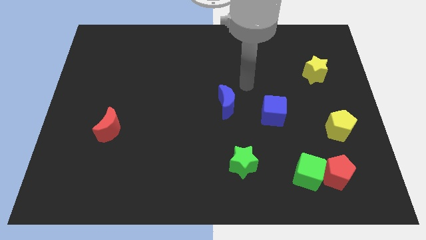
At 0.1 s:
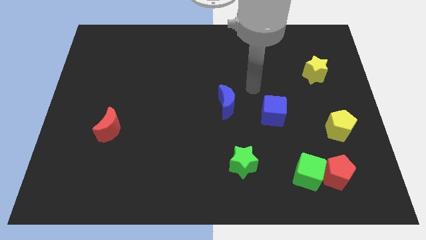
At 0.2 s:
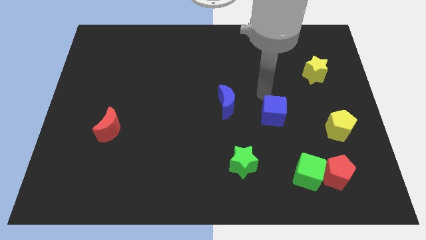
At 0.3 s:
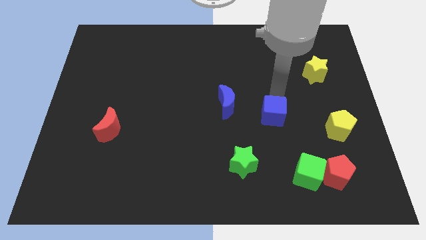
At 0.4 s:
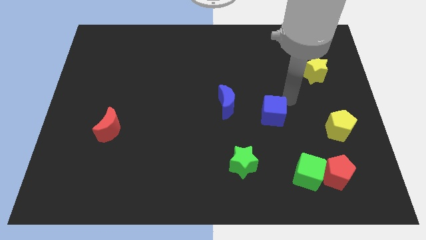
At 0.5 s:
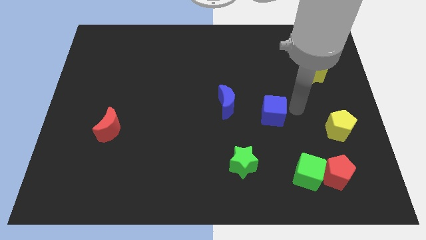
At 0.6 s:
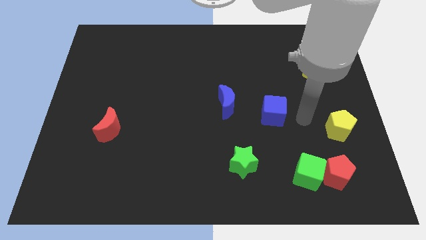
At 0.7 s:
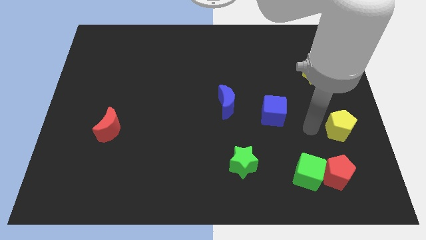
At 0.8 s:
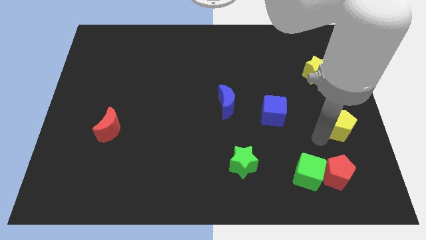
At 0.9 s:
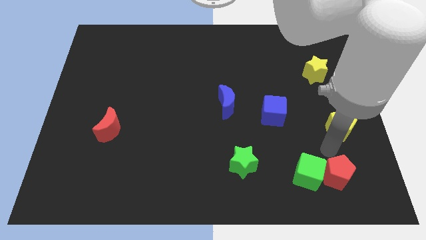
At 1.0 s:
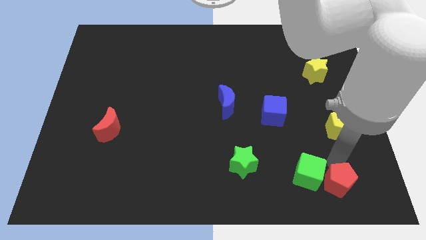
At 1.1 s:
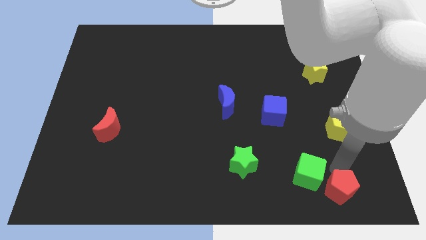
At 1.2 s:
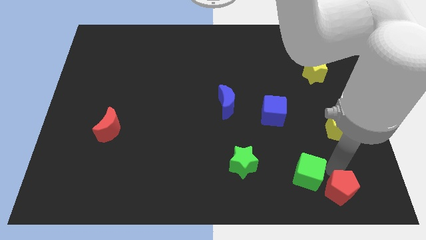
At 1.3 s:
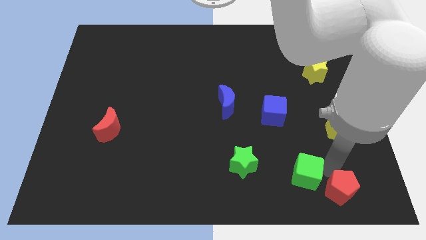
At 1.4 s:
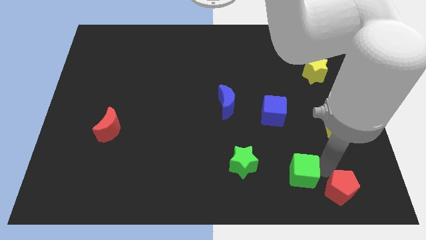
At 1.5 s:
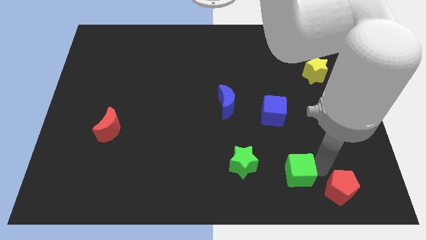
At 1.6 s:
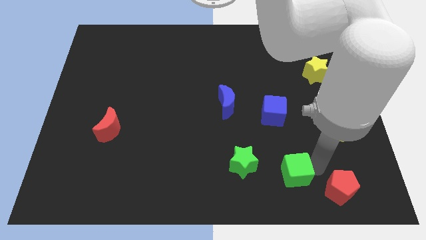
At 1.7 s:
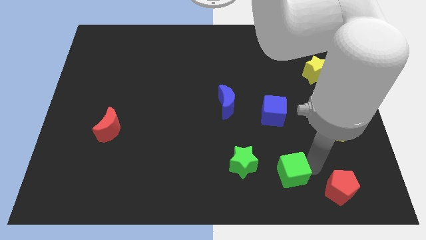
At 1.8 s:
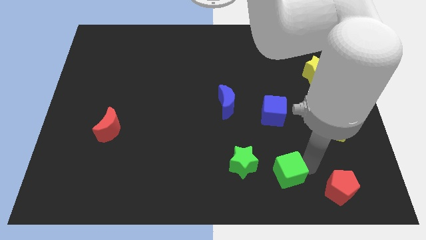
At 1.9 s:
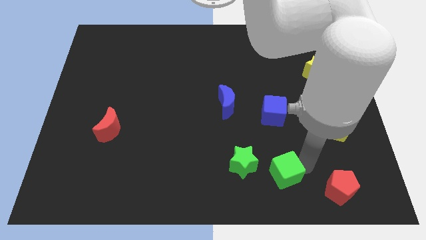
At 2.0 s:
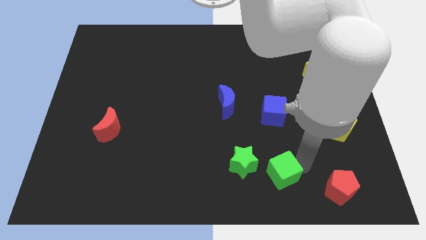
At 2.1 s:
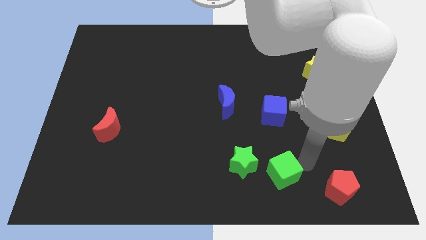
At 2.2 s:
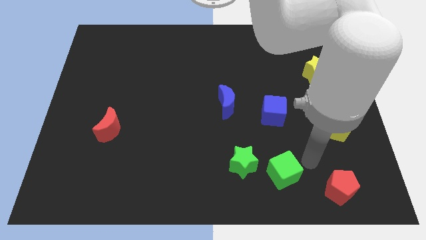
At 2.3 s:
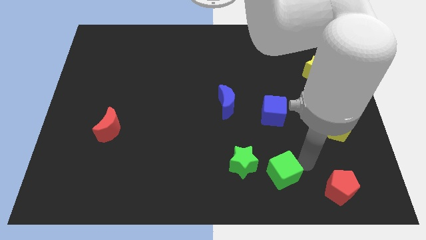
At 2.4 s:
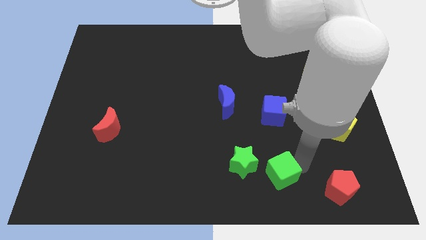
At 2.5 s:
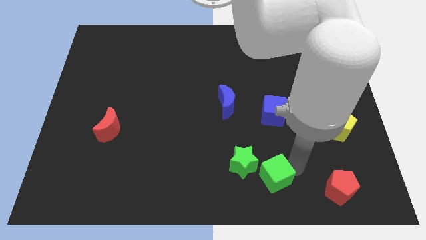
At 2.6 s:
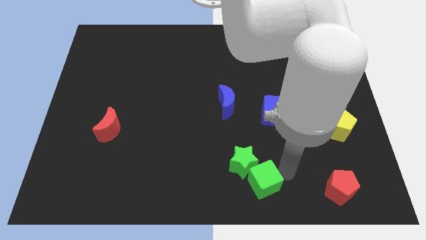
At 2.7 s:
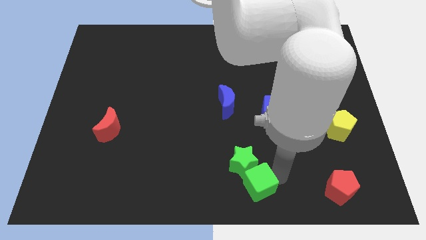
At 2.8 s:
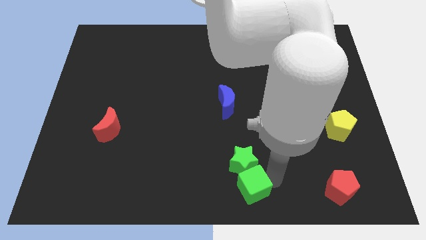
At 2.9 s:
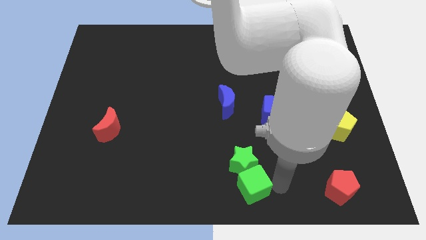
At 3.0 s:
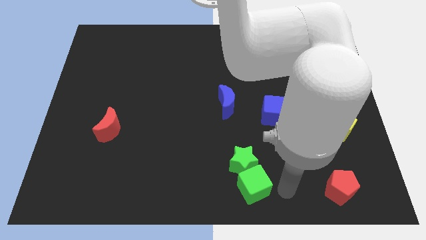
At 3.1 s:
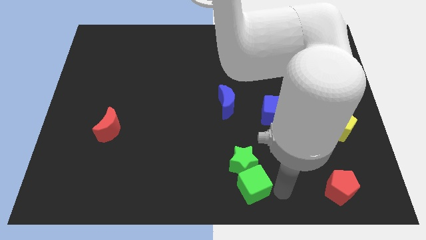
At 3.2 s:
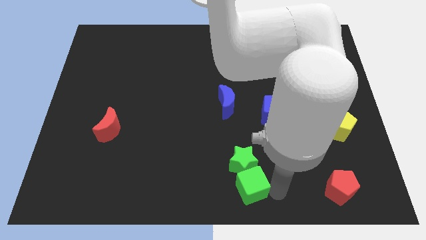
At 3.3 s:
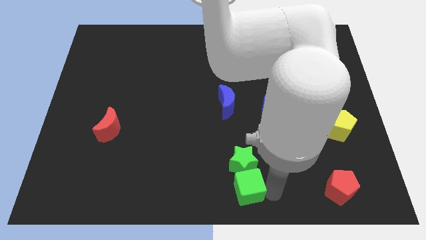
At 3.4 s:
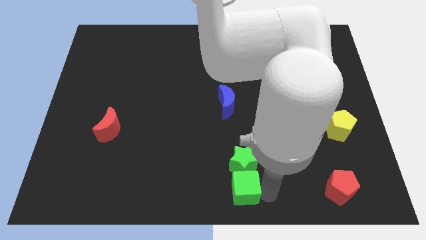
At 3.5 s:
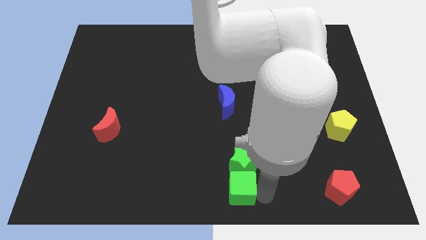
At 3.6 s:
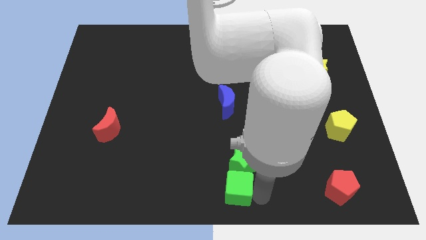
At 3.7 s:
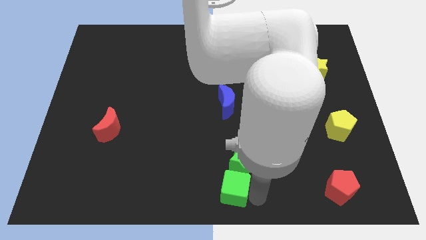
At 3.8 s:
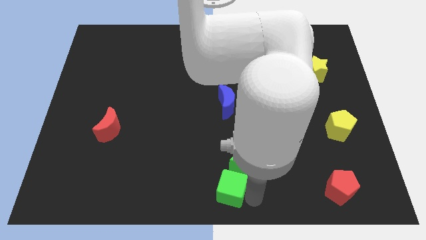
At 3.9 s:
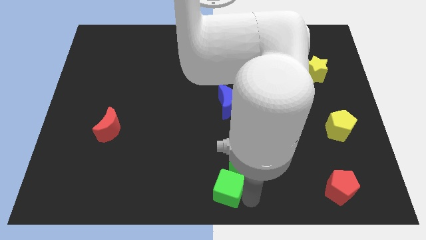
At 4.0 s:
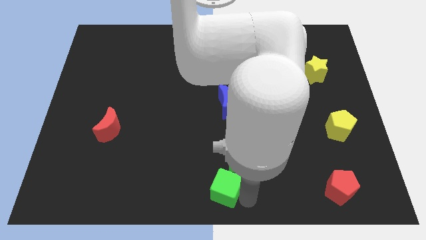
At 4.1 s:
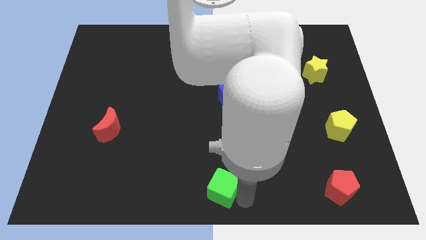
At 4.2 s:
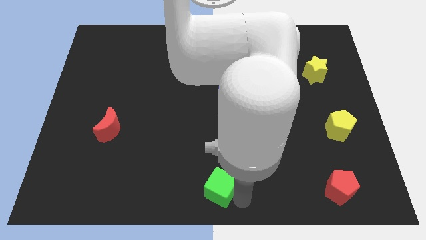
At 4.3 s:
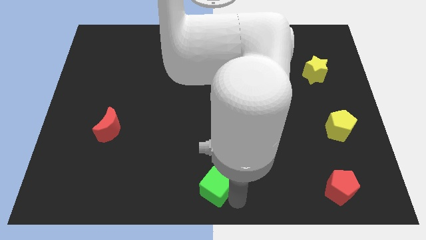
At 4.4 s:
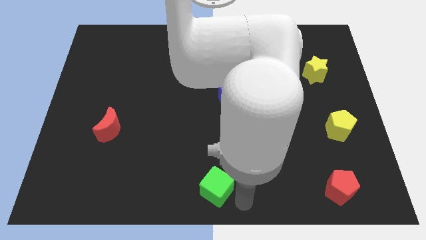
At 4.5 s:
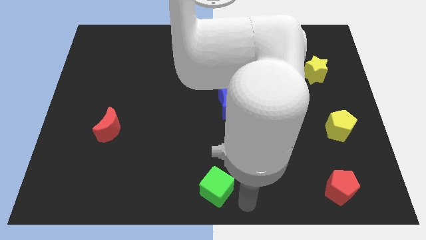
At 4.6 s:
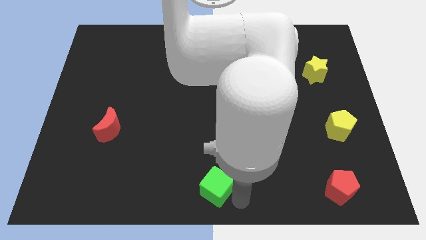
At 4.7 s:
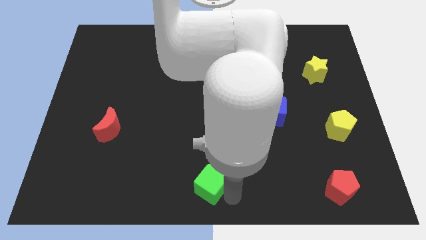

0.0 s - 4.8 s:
push the green cube left

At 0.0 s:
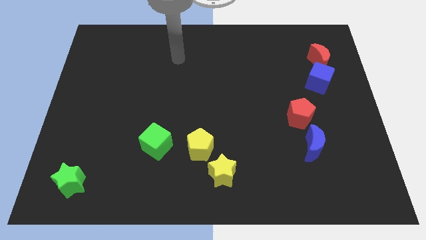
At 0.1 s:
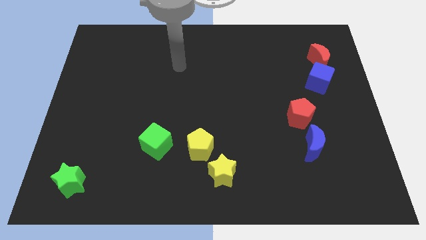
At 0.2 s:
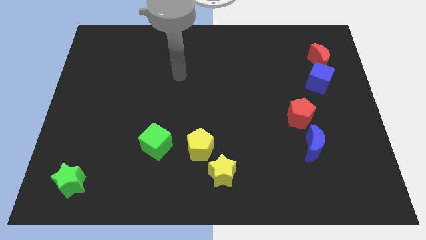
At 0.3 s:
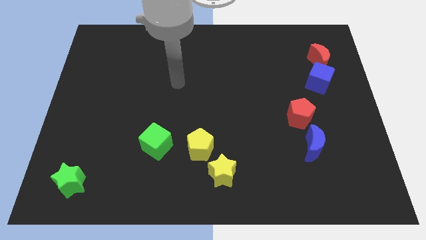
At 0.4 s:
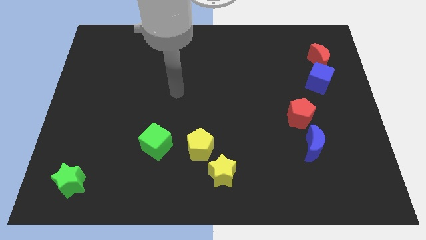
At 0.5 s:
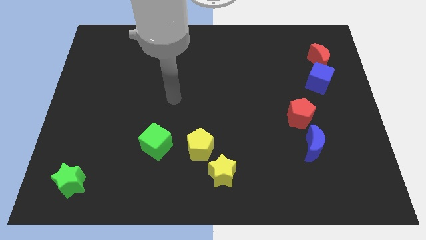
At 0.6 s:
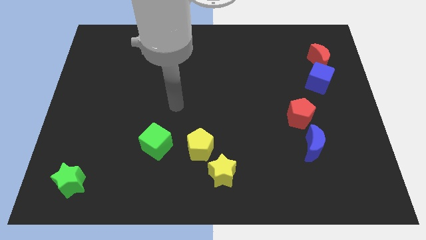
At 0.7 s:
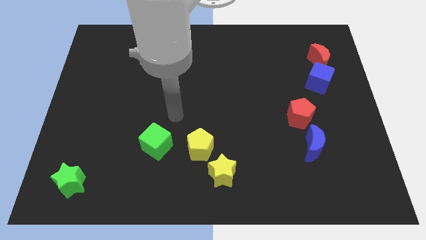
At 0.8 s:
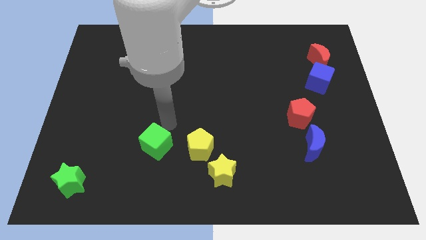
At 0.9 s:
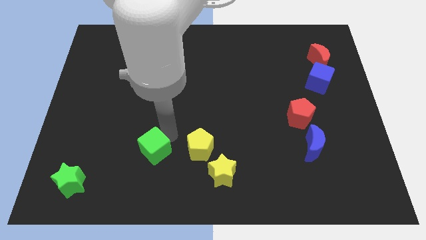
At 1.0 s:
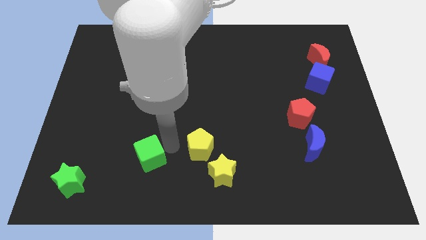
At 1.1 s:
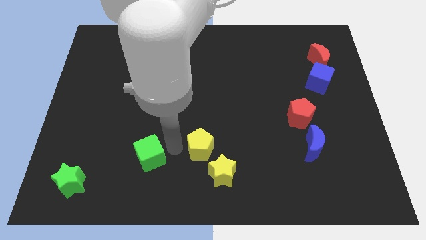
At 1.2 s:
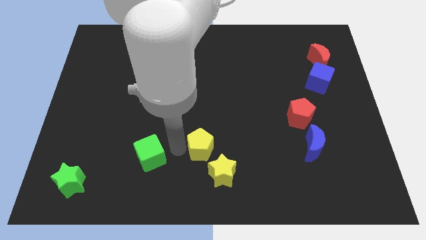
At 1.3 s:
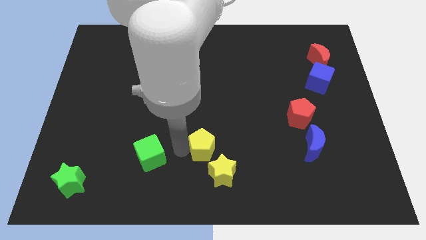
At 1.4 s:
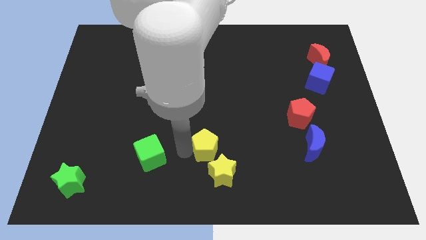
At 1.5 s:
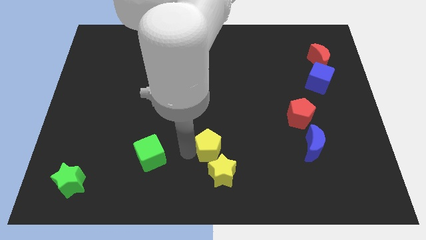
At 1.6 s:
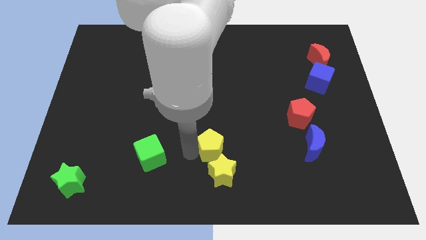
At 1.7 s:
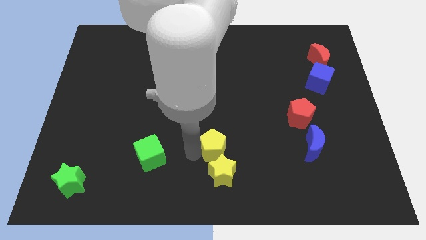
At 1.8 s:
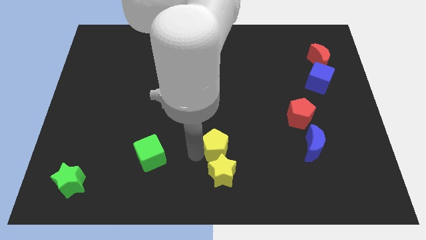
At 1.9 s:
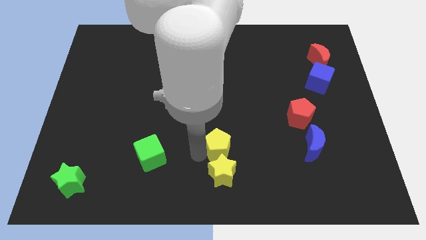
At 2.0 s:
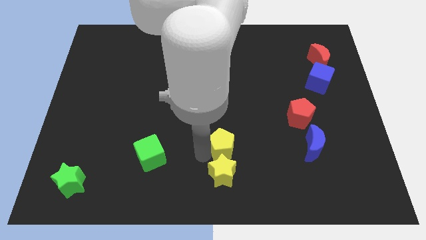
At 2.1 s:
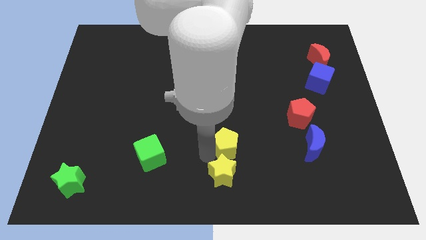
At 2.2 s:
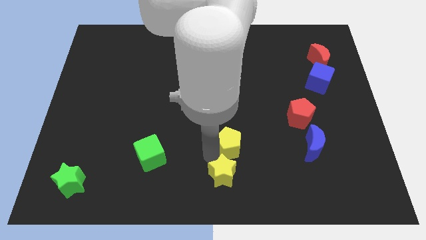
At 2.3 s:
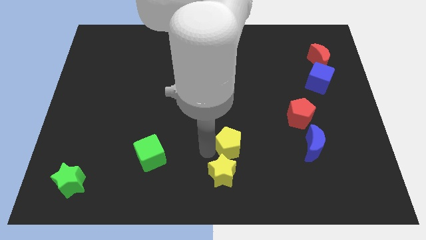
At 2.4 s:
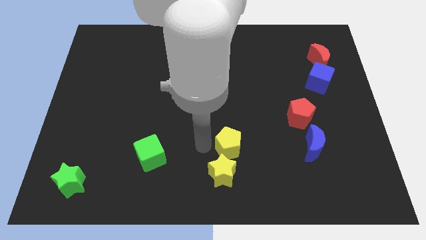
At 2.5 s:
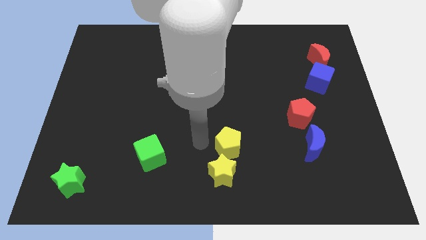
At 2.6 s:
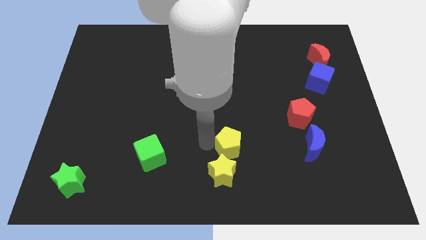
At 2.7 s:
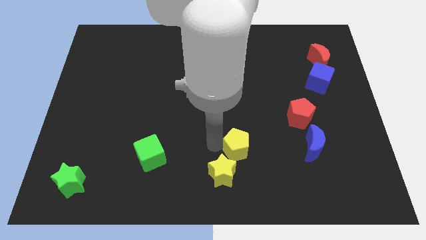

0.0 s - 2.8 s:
move the yellow pentagon to the right somewhat

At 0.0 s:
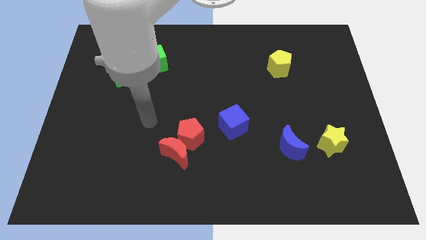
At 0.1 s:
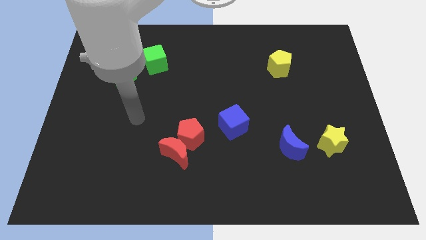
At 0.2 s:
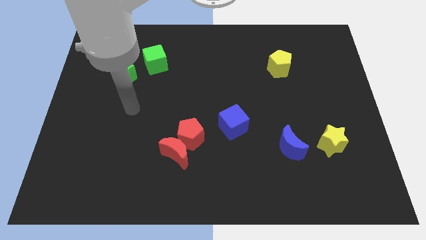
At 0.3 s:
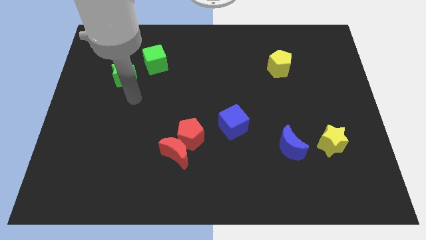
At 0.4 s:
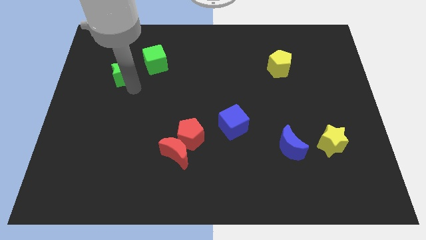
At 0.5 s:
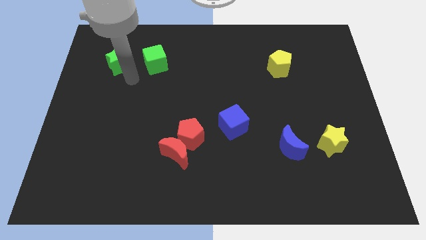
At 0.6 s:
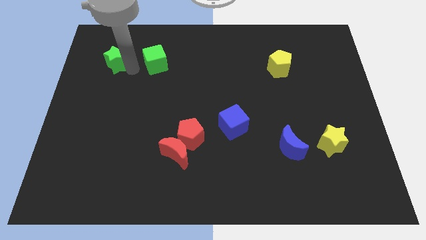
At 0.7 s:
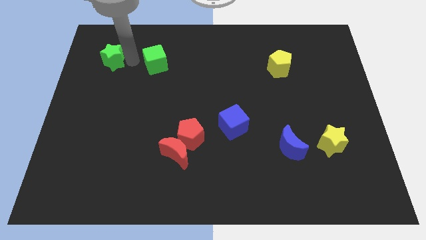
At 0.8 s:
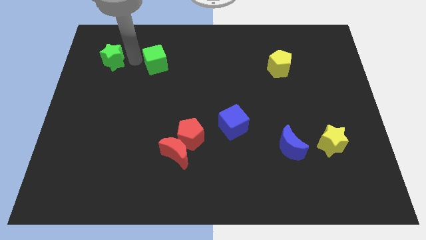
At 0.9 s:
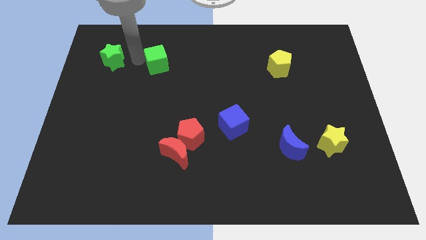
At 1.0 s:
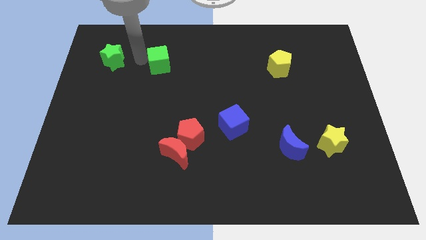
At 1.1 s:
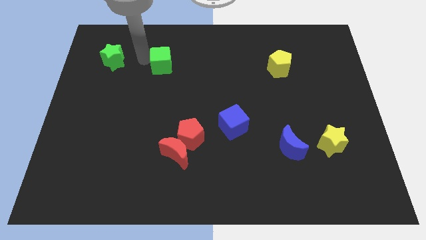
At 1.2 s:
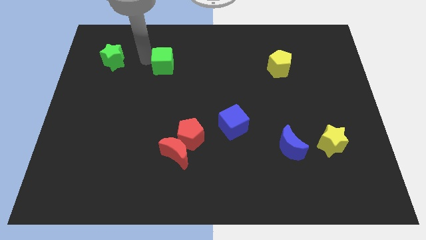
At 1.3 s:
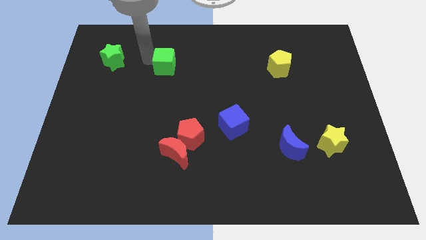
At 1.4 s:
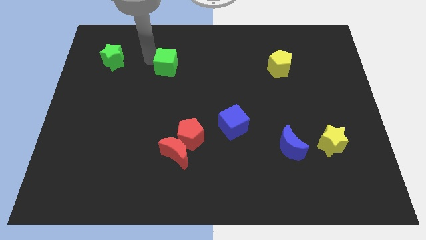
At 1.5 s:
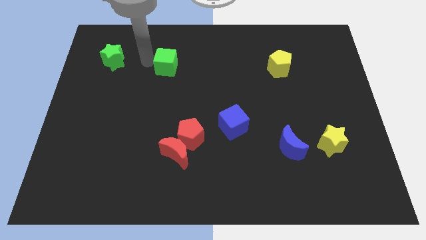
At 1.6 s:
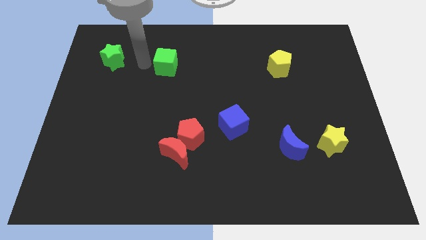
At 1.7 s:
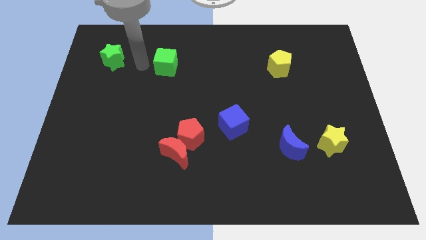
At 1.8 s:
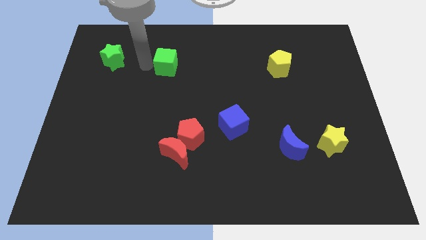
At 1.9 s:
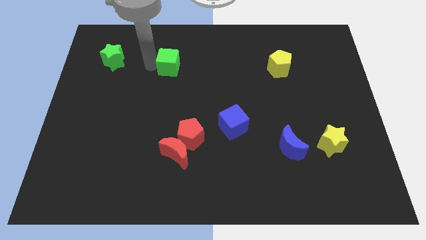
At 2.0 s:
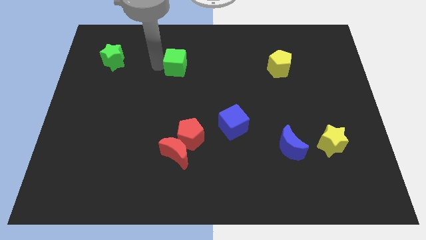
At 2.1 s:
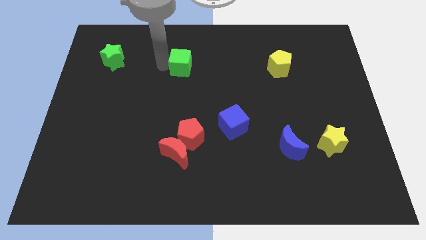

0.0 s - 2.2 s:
push the green cube a bit to the right
